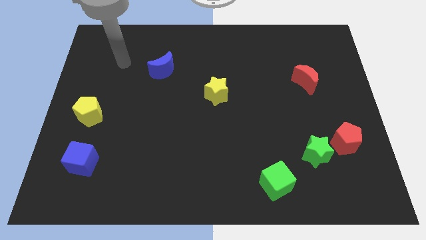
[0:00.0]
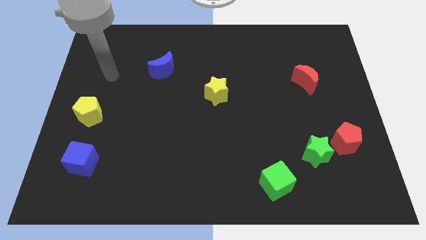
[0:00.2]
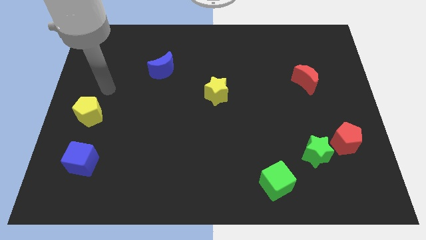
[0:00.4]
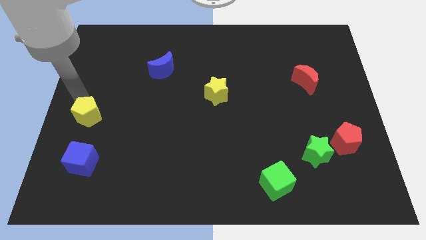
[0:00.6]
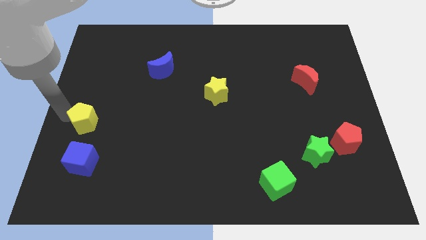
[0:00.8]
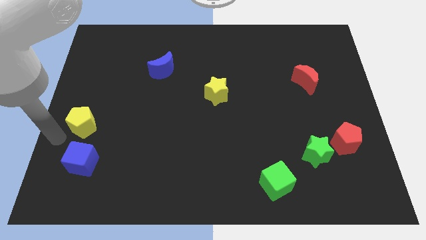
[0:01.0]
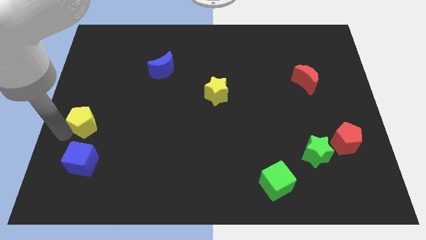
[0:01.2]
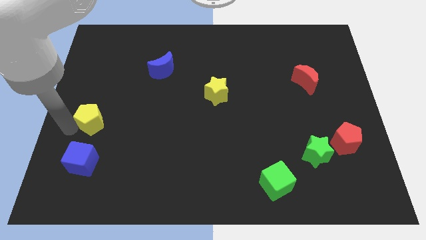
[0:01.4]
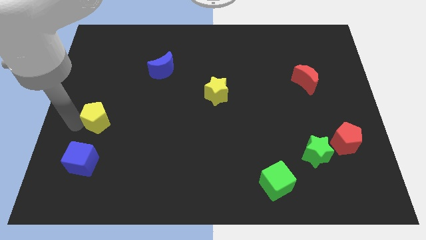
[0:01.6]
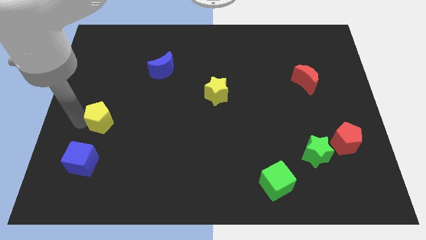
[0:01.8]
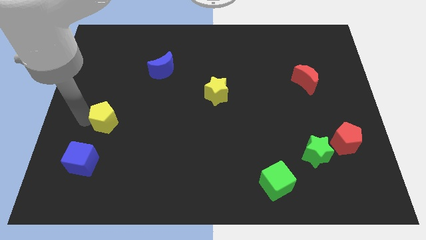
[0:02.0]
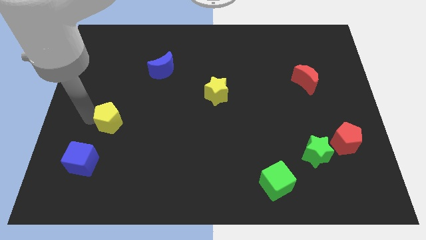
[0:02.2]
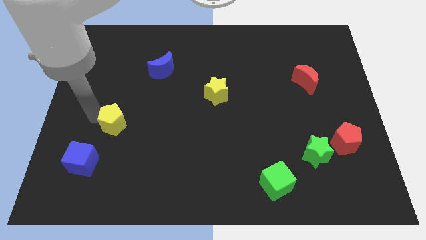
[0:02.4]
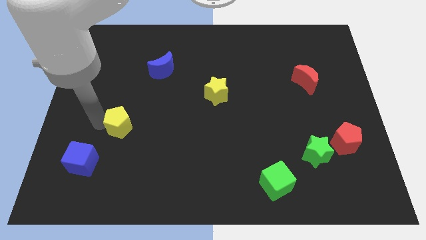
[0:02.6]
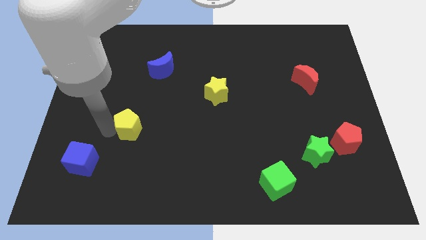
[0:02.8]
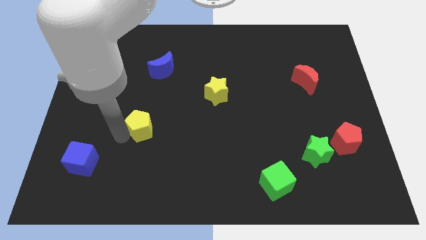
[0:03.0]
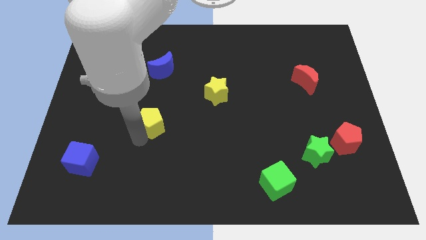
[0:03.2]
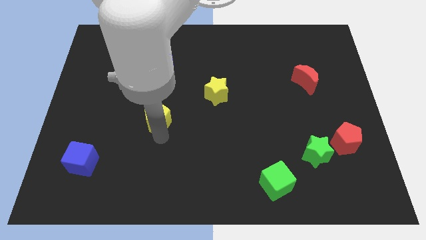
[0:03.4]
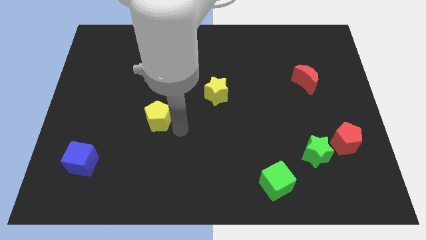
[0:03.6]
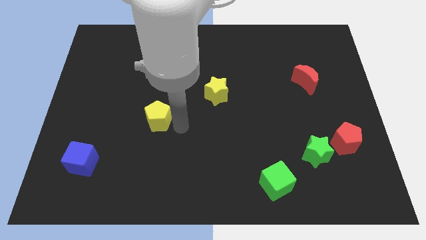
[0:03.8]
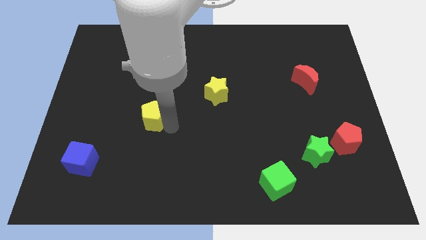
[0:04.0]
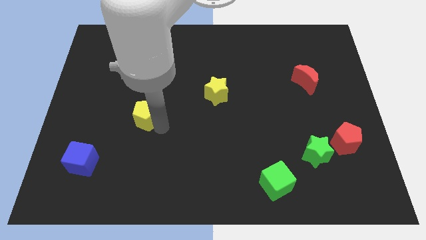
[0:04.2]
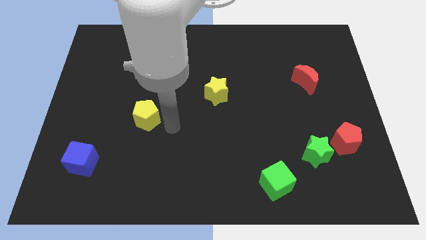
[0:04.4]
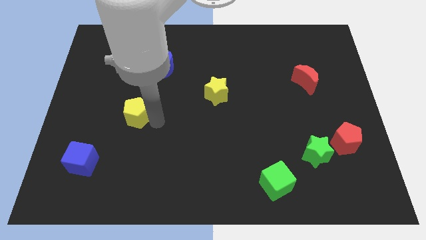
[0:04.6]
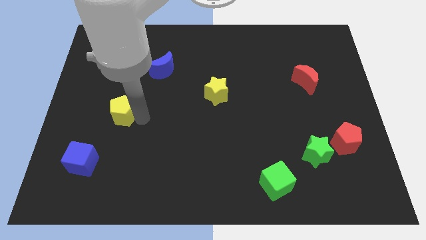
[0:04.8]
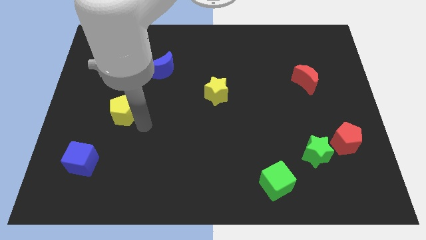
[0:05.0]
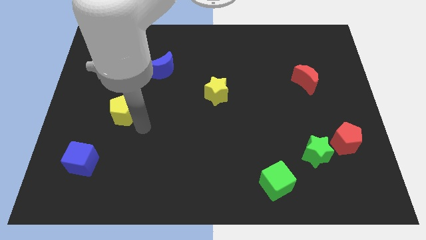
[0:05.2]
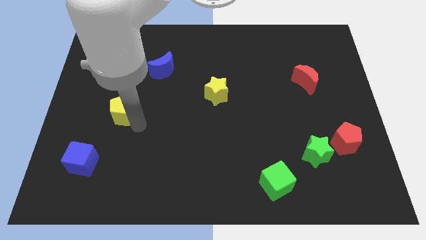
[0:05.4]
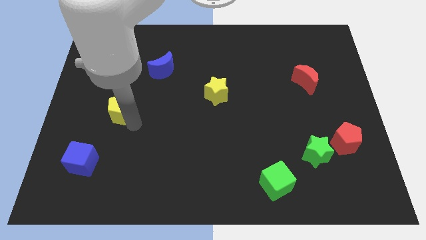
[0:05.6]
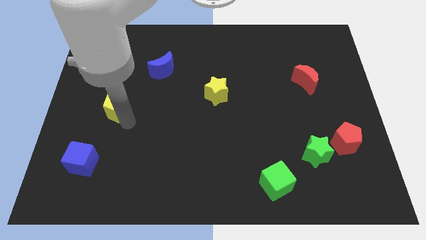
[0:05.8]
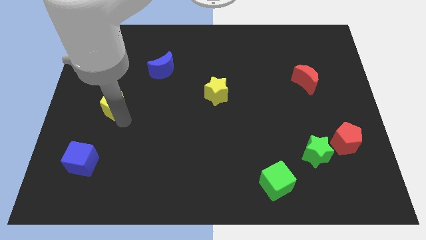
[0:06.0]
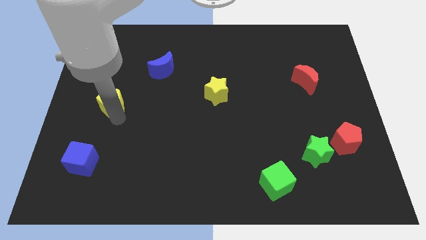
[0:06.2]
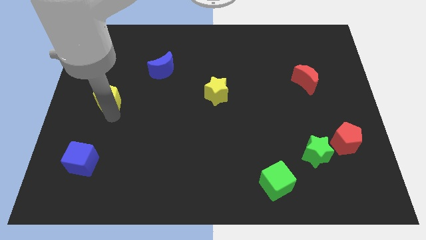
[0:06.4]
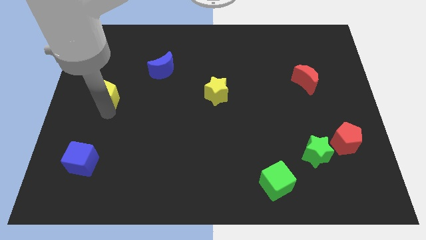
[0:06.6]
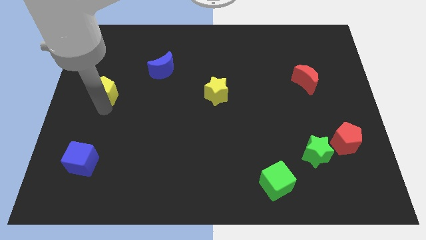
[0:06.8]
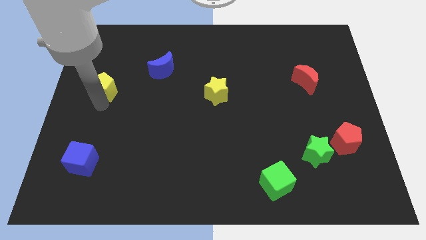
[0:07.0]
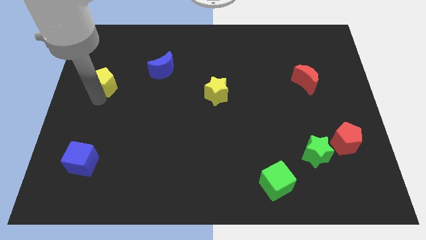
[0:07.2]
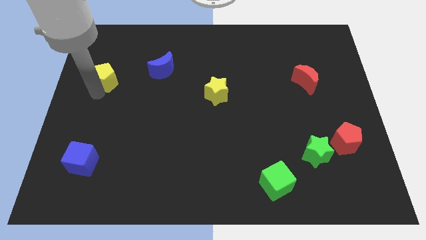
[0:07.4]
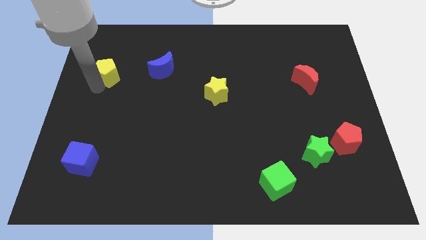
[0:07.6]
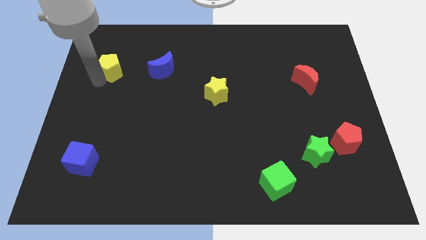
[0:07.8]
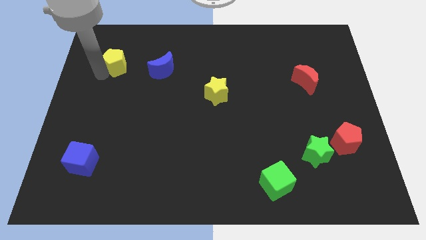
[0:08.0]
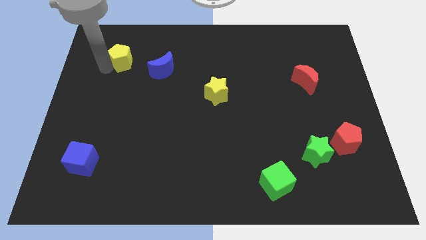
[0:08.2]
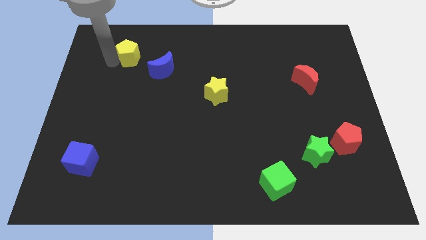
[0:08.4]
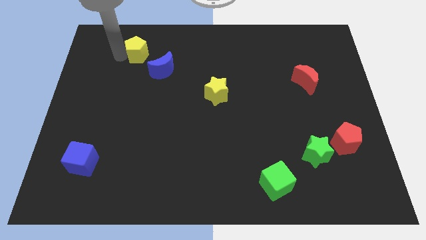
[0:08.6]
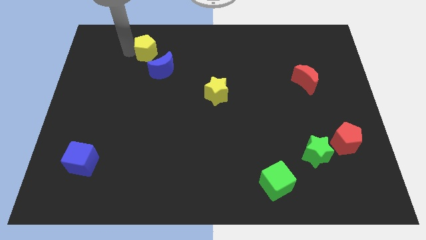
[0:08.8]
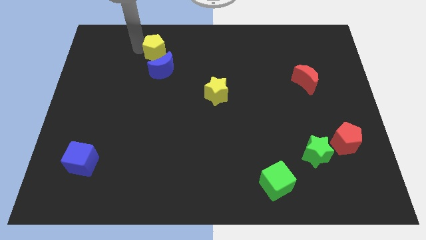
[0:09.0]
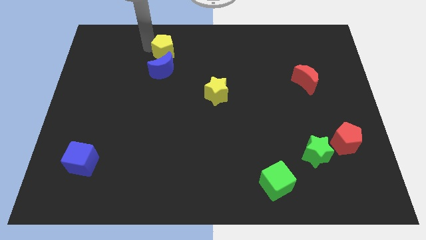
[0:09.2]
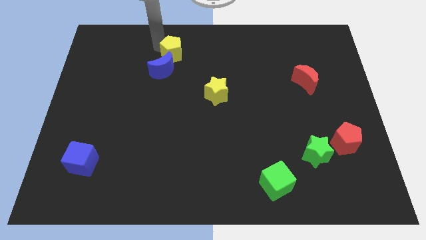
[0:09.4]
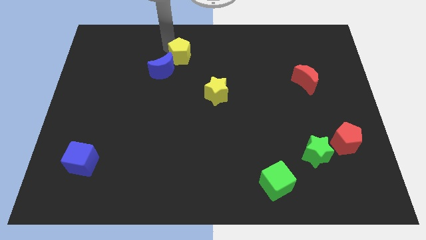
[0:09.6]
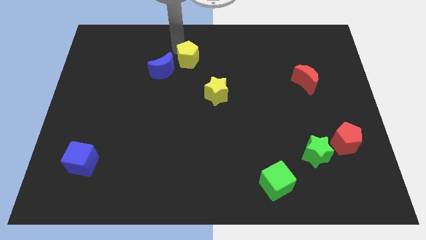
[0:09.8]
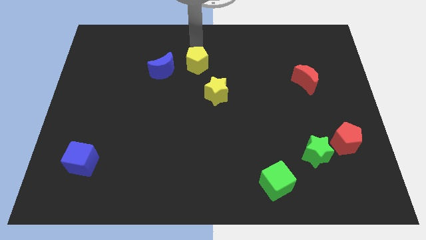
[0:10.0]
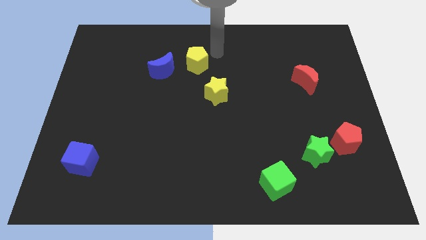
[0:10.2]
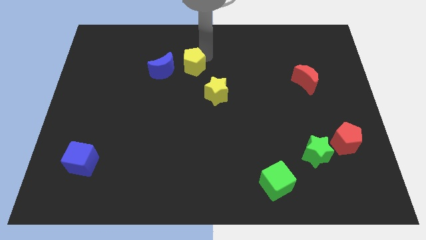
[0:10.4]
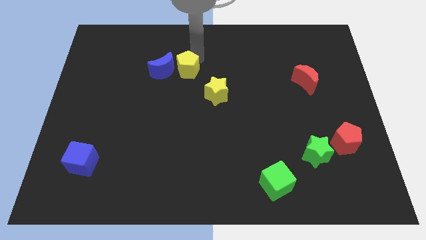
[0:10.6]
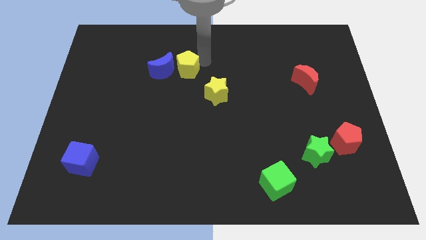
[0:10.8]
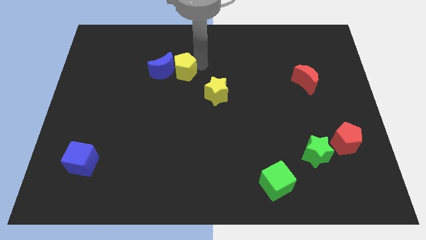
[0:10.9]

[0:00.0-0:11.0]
push the yellow pentagon to the bottom right of the blue moon

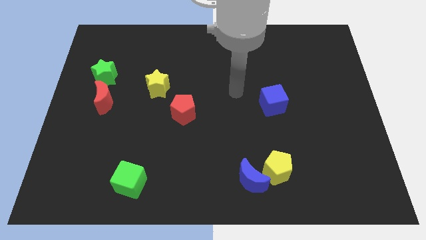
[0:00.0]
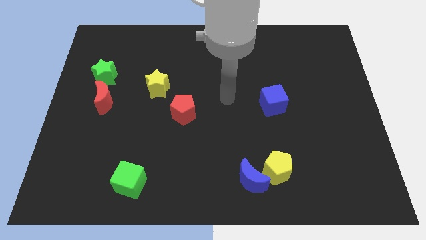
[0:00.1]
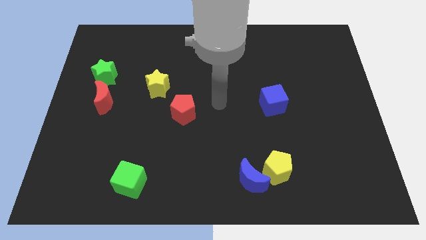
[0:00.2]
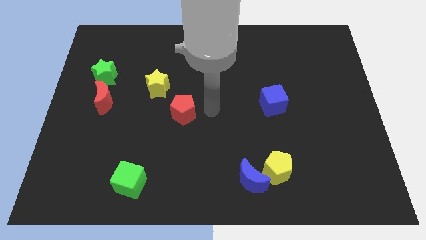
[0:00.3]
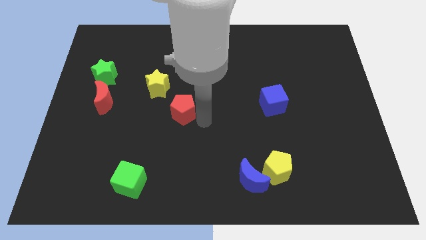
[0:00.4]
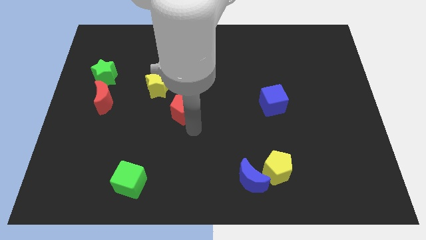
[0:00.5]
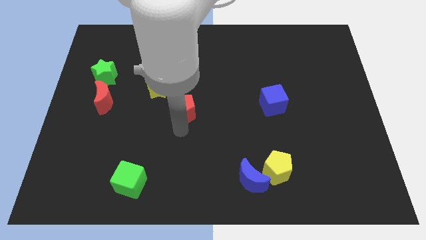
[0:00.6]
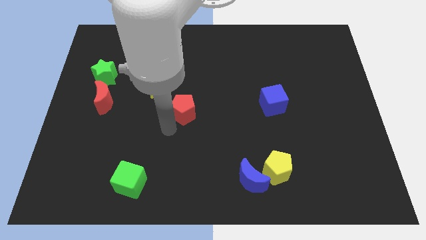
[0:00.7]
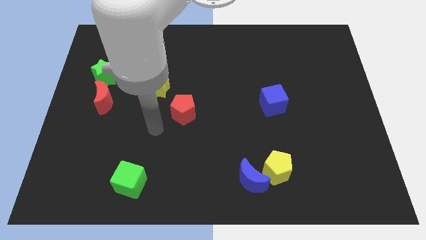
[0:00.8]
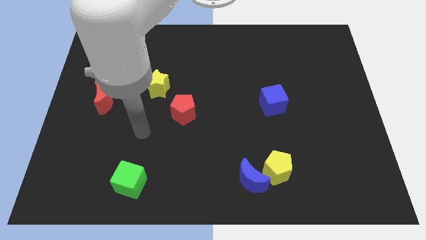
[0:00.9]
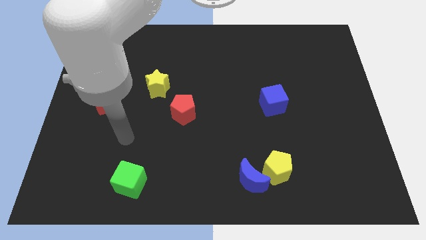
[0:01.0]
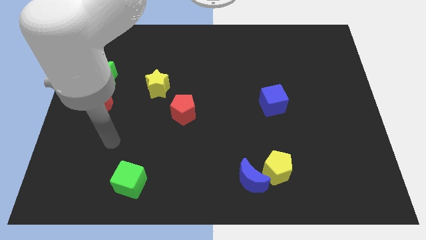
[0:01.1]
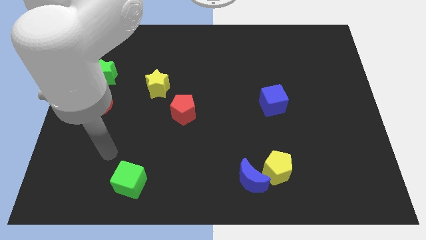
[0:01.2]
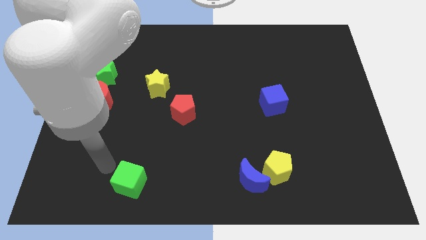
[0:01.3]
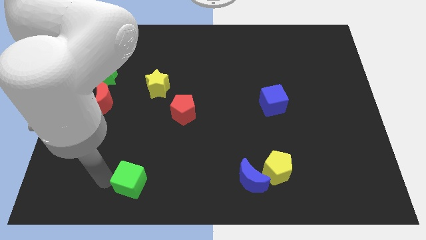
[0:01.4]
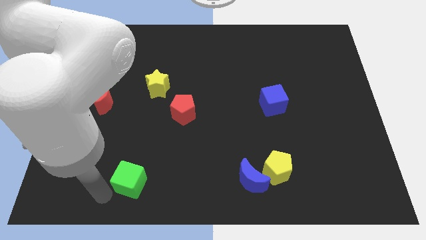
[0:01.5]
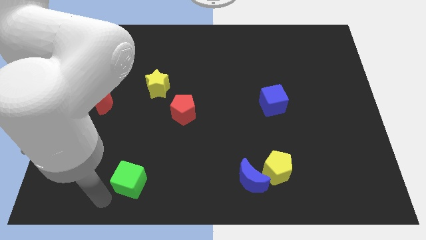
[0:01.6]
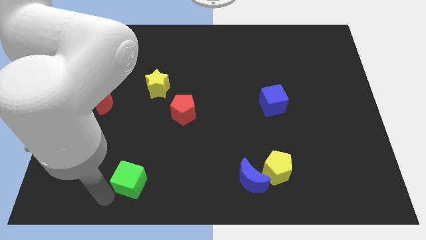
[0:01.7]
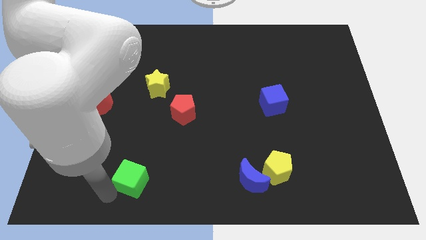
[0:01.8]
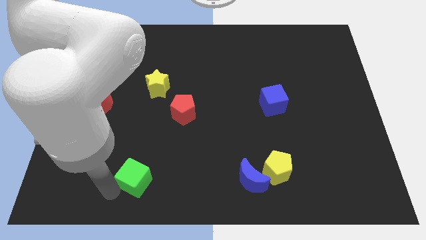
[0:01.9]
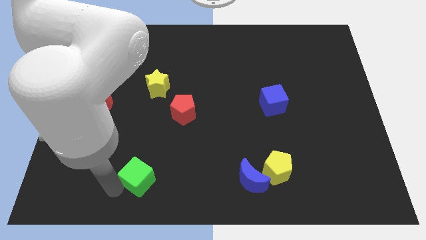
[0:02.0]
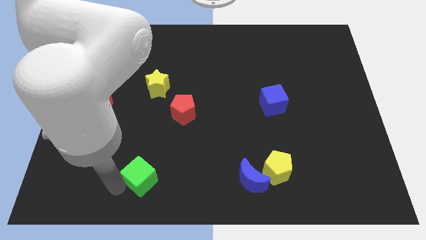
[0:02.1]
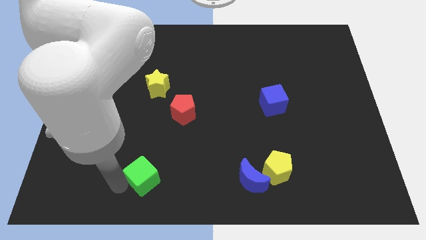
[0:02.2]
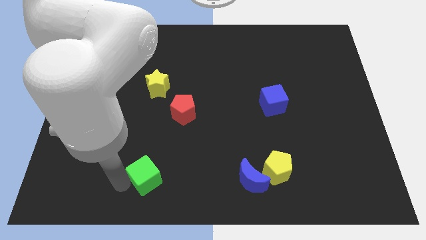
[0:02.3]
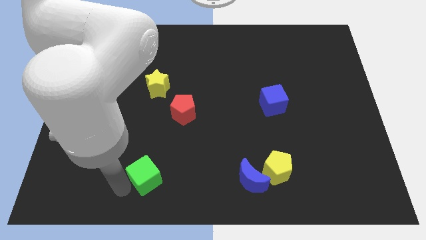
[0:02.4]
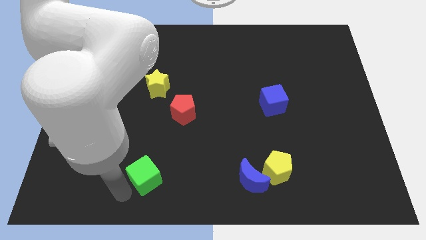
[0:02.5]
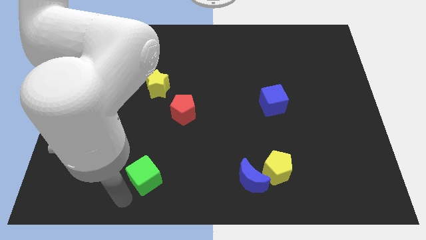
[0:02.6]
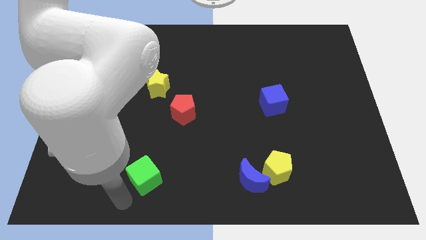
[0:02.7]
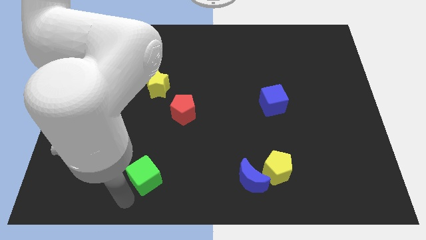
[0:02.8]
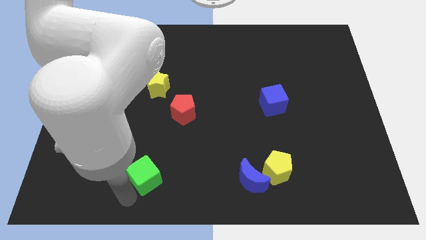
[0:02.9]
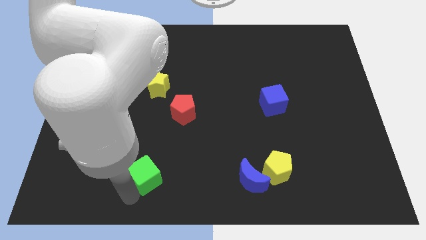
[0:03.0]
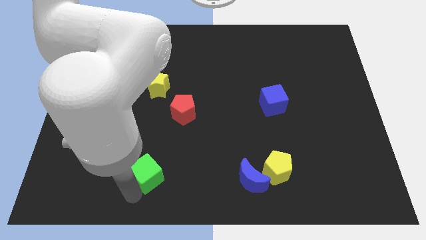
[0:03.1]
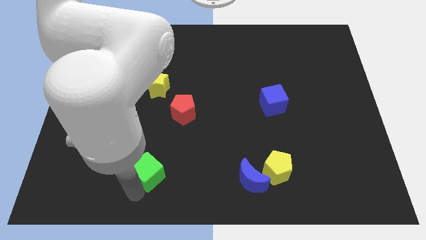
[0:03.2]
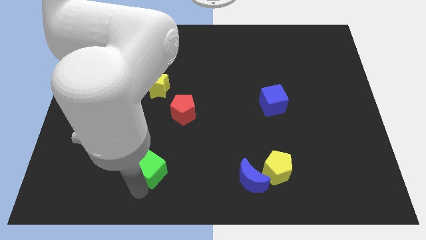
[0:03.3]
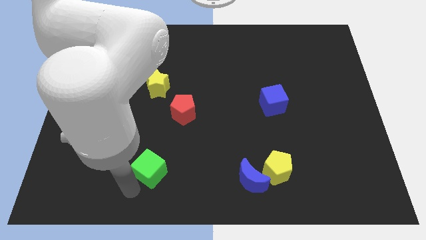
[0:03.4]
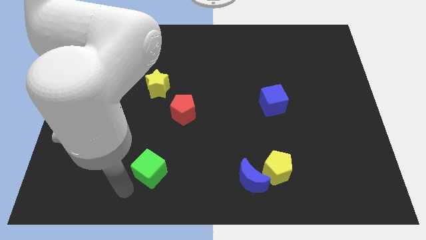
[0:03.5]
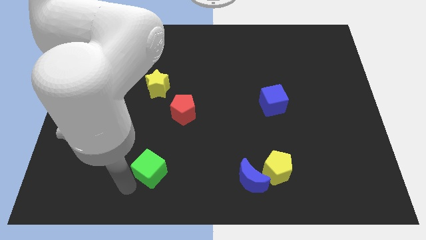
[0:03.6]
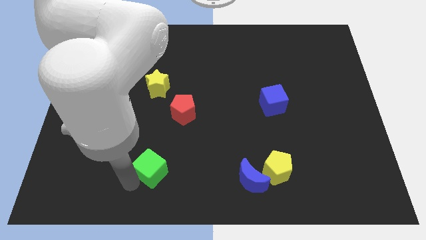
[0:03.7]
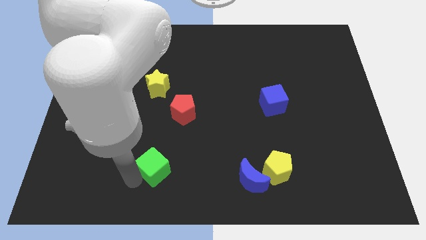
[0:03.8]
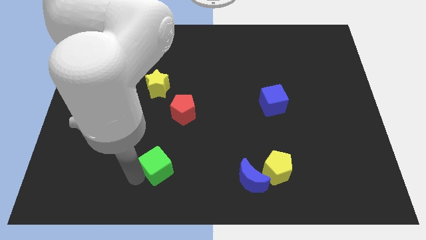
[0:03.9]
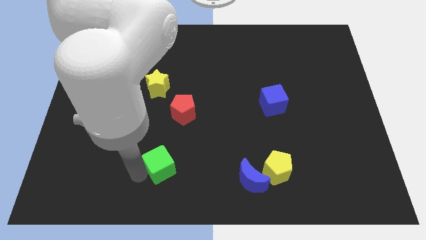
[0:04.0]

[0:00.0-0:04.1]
slide the green cube below the red pentagon
